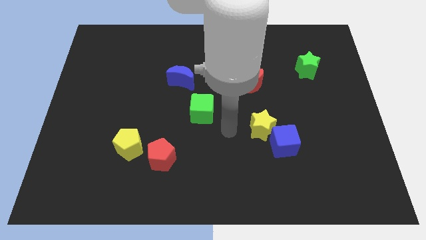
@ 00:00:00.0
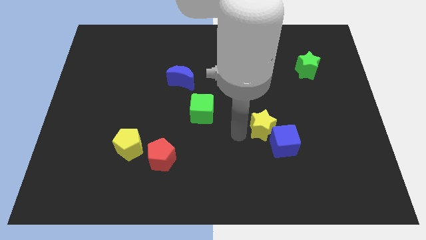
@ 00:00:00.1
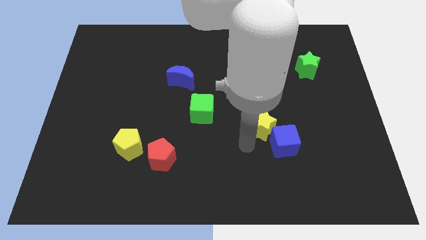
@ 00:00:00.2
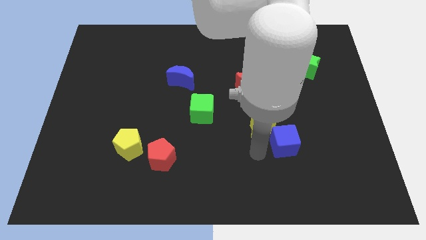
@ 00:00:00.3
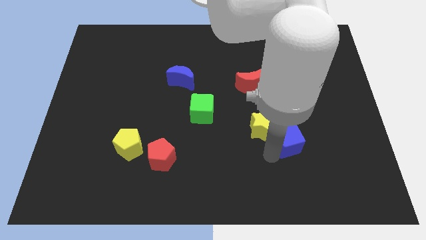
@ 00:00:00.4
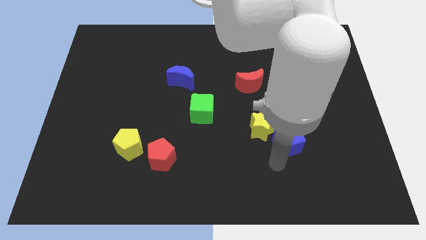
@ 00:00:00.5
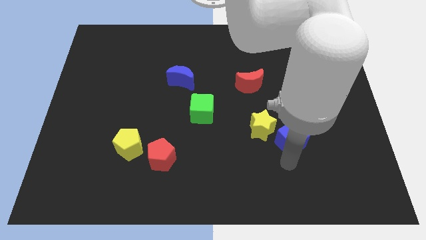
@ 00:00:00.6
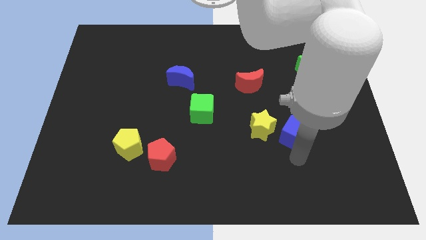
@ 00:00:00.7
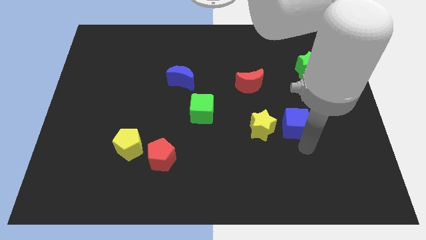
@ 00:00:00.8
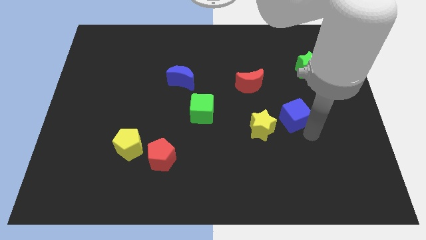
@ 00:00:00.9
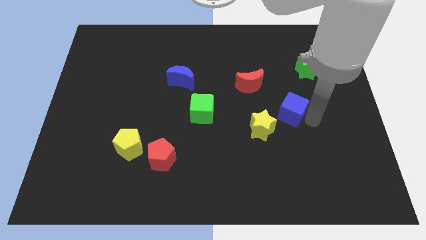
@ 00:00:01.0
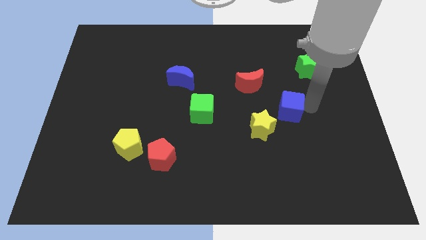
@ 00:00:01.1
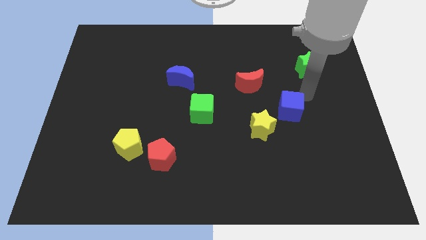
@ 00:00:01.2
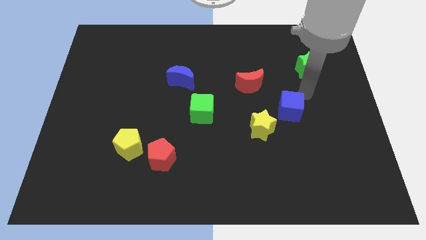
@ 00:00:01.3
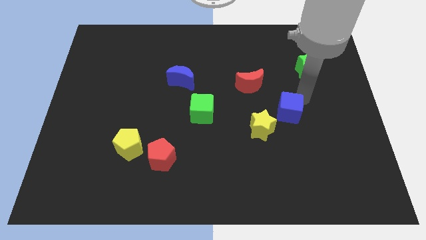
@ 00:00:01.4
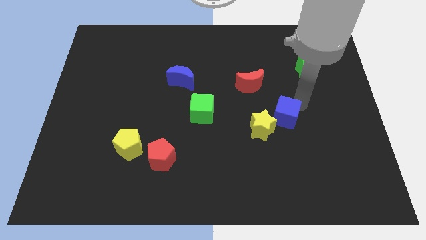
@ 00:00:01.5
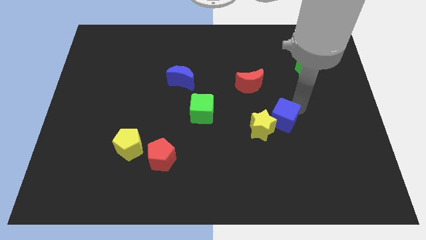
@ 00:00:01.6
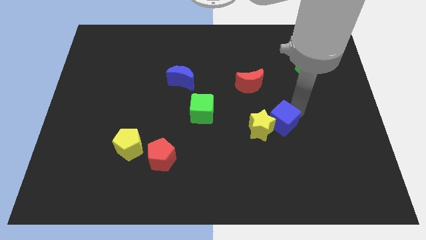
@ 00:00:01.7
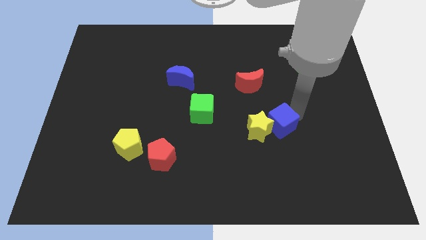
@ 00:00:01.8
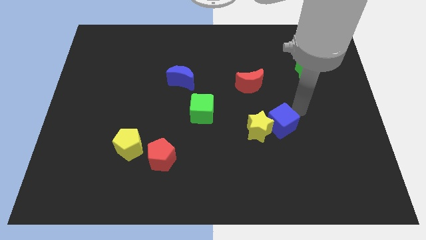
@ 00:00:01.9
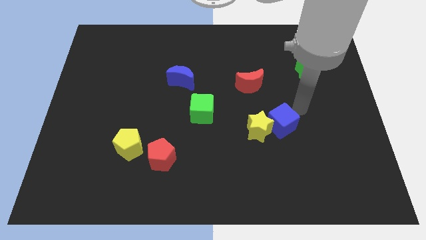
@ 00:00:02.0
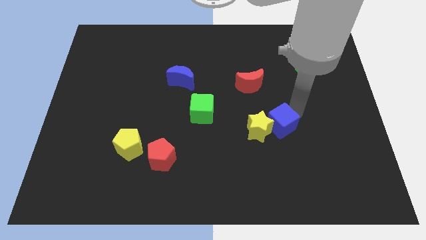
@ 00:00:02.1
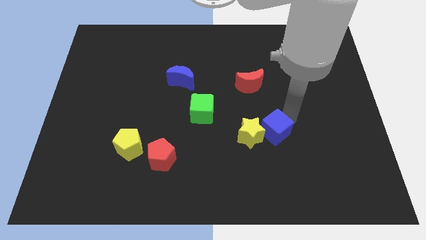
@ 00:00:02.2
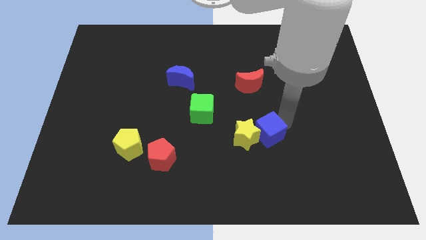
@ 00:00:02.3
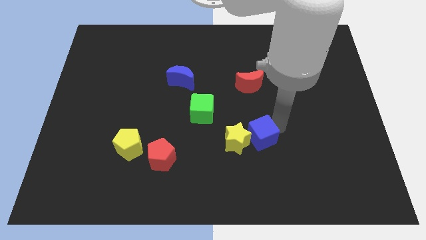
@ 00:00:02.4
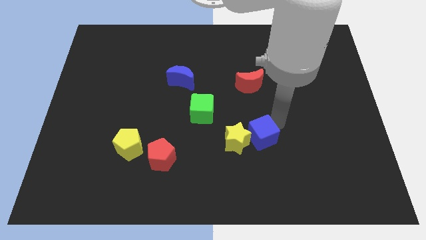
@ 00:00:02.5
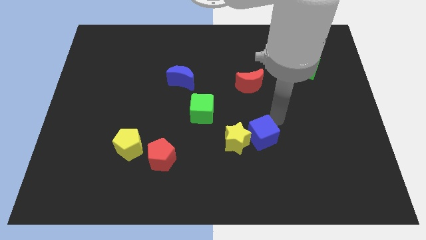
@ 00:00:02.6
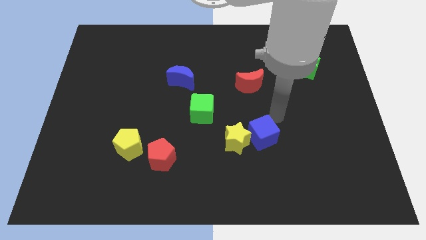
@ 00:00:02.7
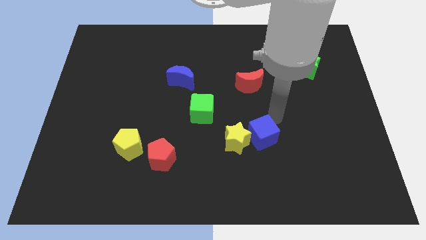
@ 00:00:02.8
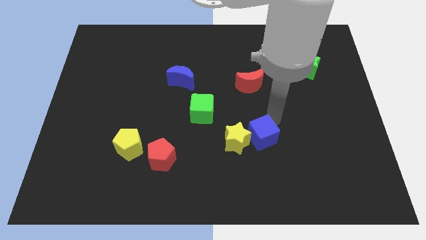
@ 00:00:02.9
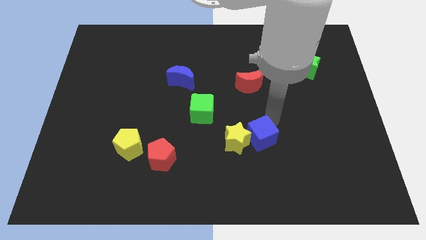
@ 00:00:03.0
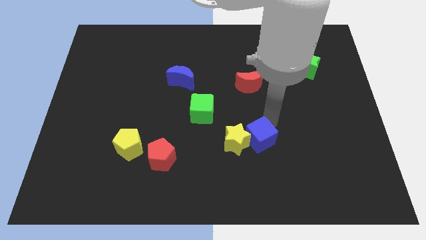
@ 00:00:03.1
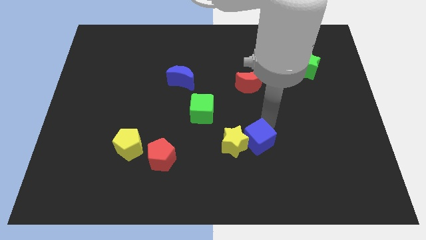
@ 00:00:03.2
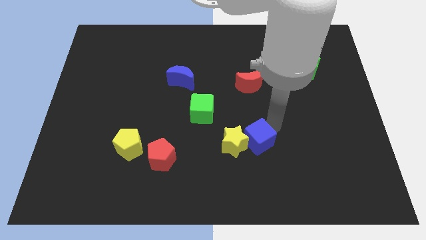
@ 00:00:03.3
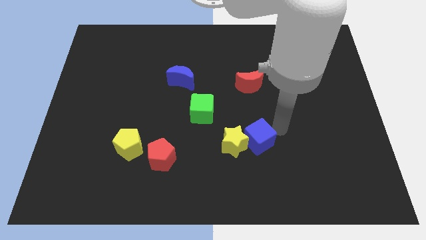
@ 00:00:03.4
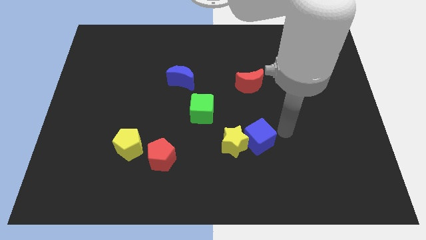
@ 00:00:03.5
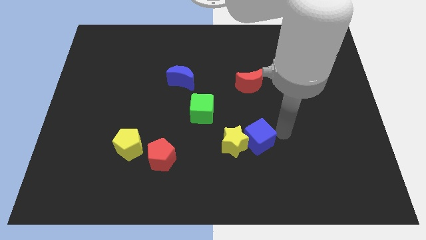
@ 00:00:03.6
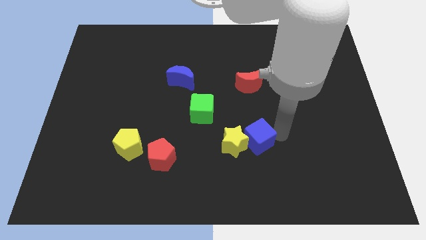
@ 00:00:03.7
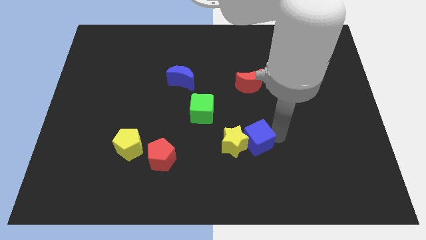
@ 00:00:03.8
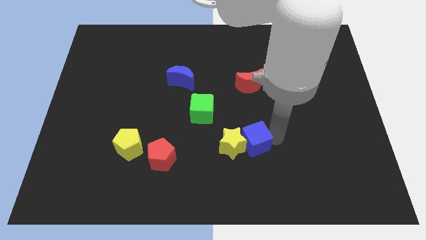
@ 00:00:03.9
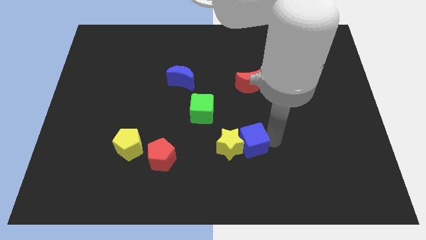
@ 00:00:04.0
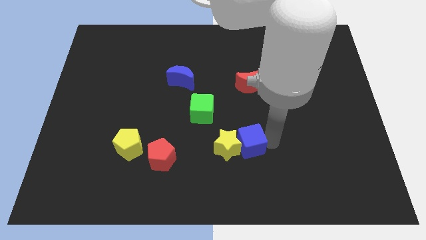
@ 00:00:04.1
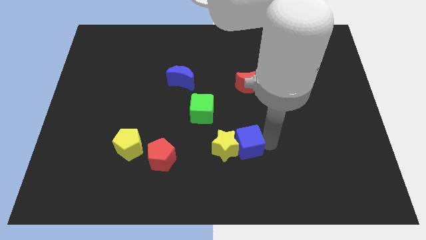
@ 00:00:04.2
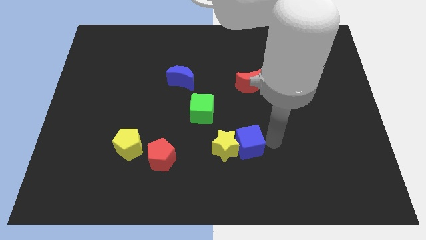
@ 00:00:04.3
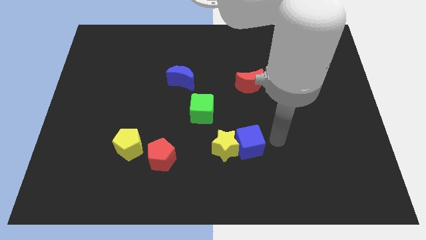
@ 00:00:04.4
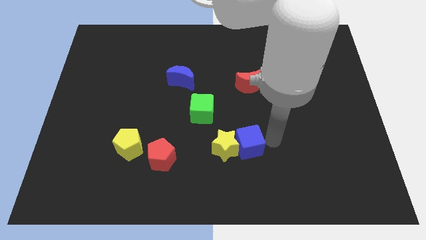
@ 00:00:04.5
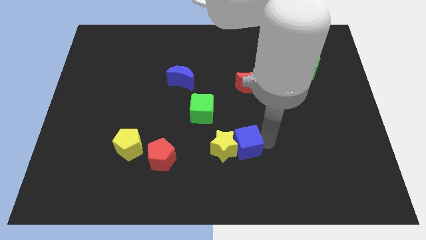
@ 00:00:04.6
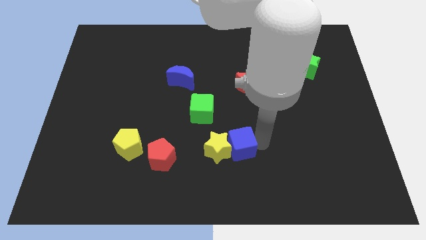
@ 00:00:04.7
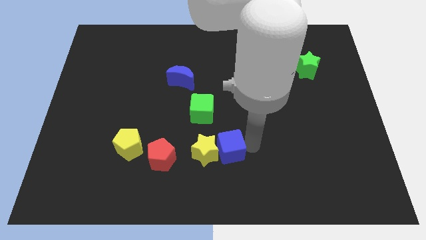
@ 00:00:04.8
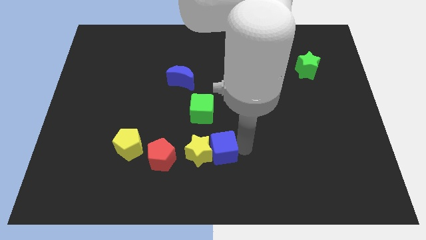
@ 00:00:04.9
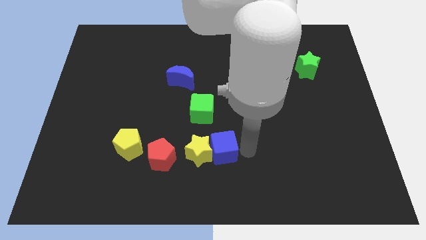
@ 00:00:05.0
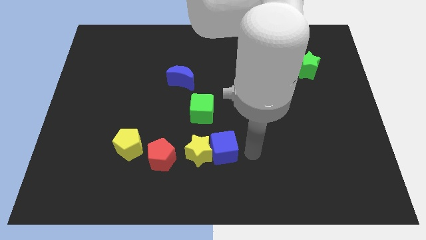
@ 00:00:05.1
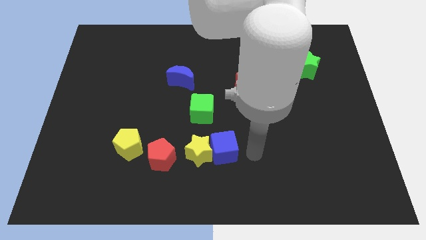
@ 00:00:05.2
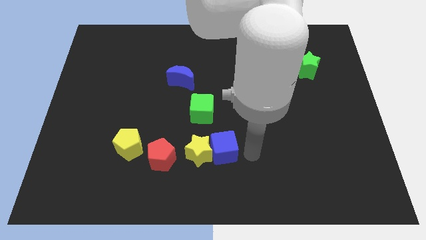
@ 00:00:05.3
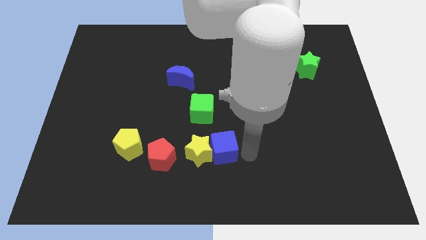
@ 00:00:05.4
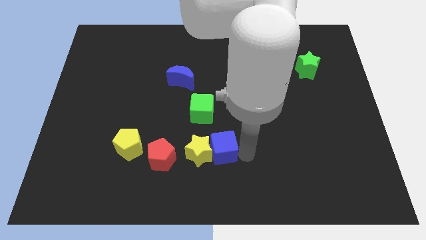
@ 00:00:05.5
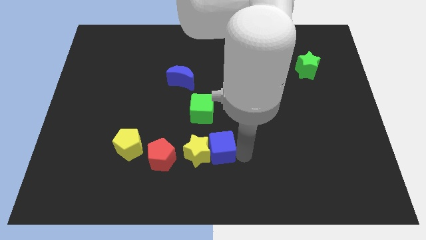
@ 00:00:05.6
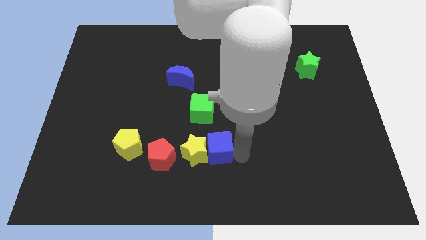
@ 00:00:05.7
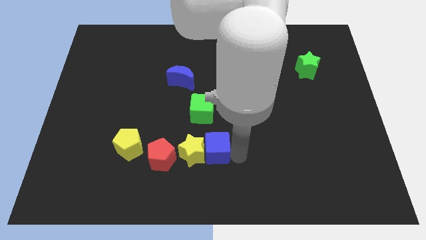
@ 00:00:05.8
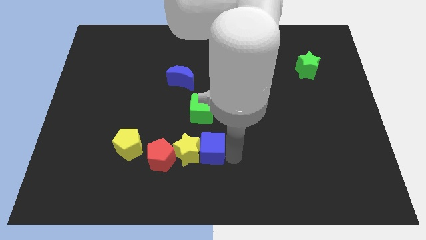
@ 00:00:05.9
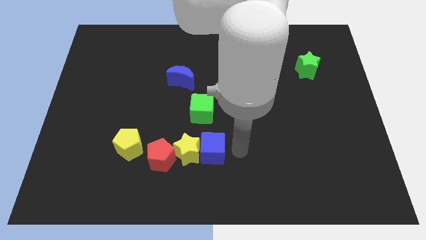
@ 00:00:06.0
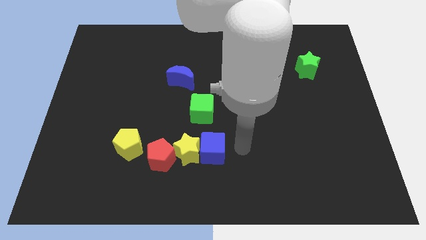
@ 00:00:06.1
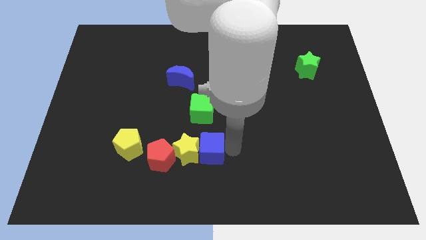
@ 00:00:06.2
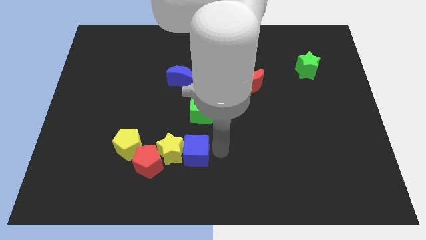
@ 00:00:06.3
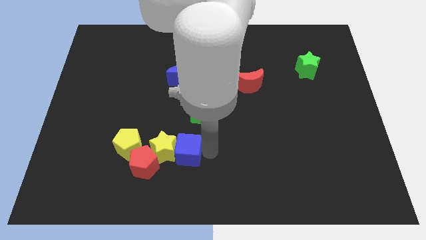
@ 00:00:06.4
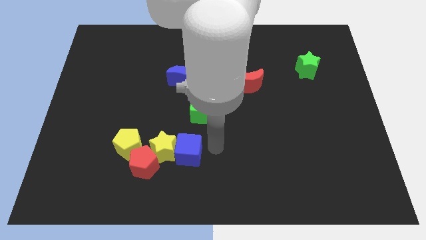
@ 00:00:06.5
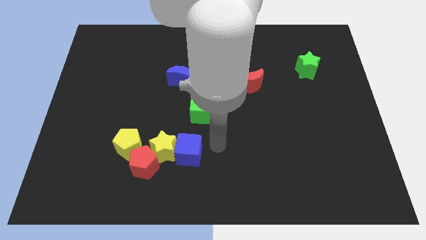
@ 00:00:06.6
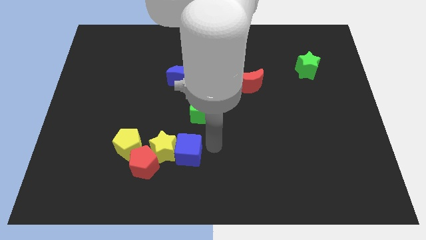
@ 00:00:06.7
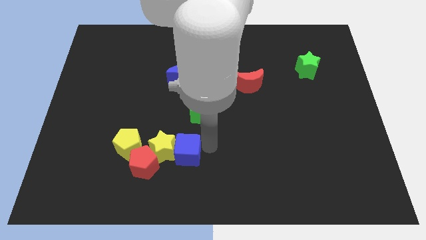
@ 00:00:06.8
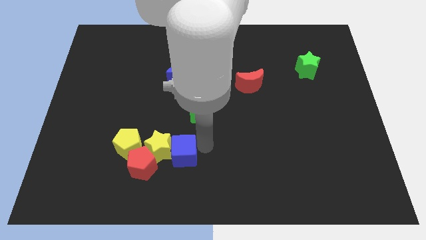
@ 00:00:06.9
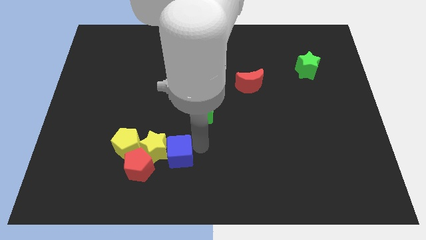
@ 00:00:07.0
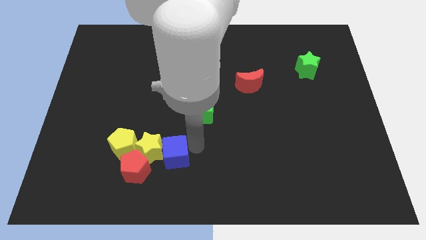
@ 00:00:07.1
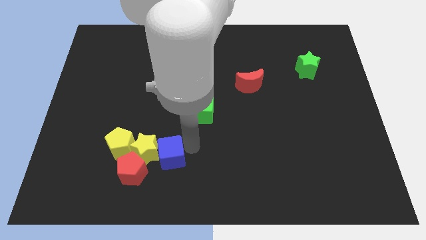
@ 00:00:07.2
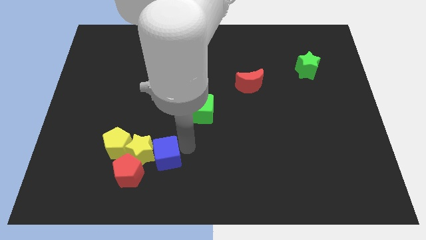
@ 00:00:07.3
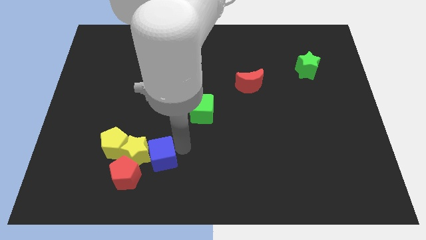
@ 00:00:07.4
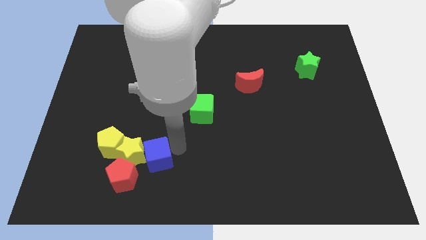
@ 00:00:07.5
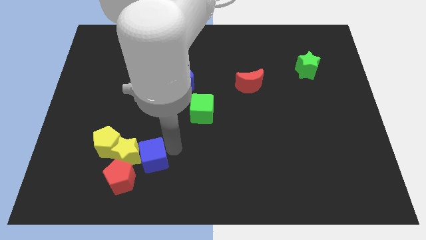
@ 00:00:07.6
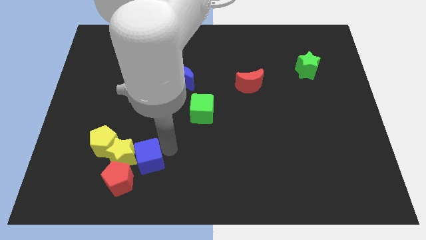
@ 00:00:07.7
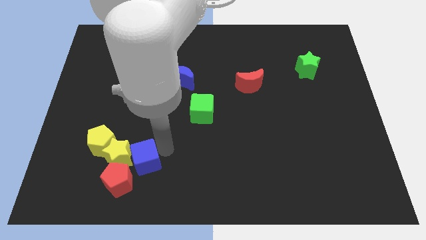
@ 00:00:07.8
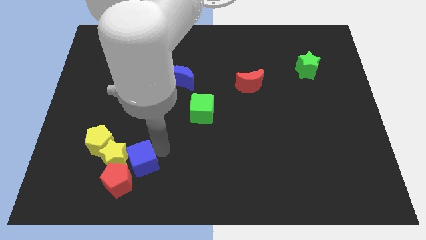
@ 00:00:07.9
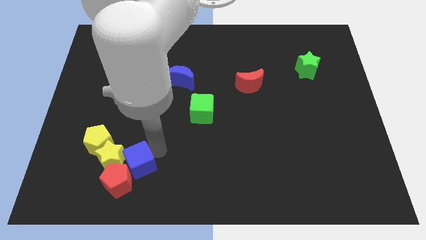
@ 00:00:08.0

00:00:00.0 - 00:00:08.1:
put the blue cube next to the red pentagon
